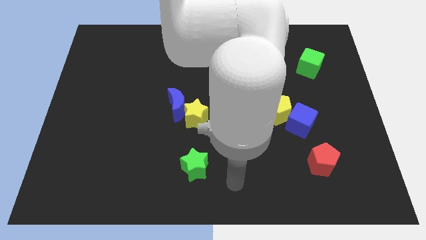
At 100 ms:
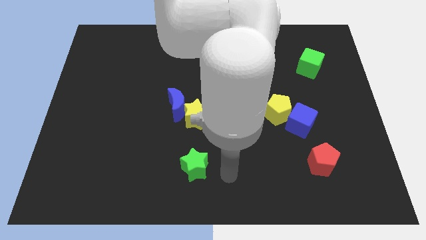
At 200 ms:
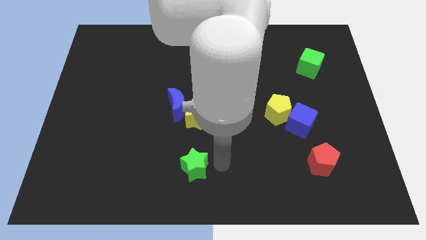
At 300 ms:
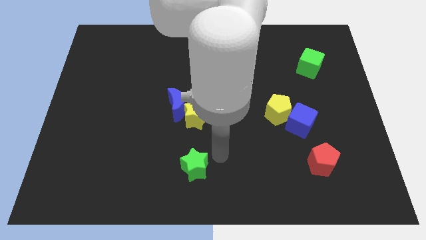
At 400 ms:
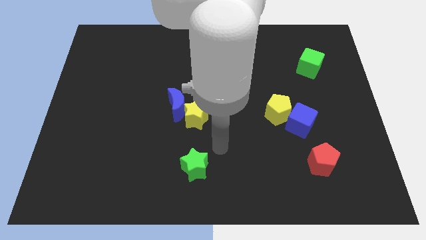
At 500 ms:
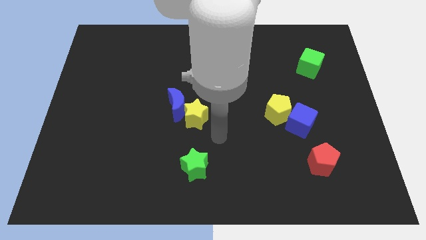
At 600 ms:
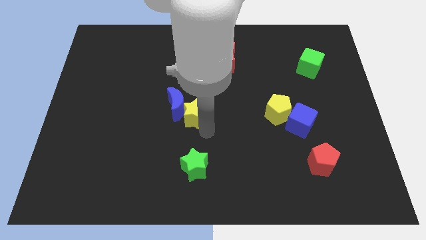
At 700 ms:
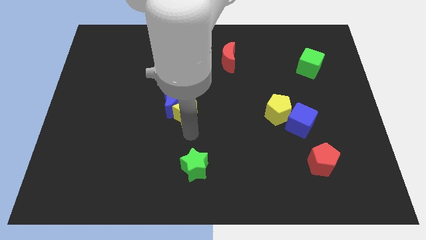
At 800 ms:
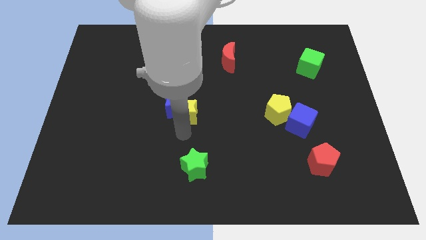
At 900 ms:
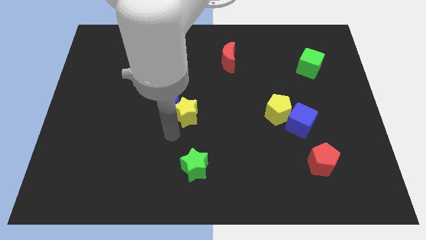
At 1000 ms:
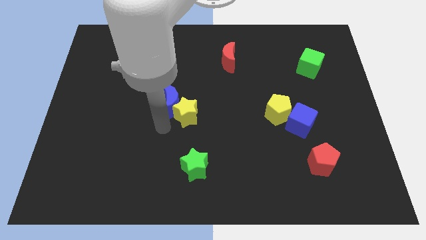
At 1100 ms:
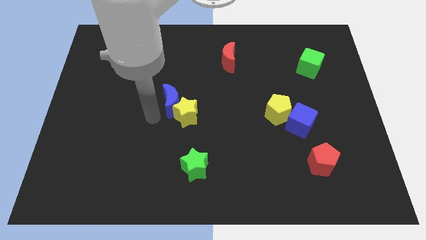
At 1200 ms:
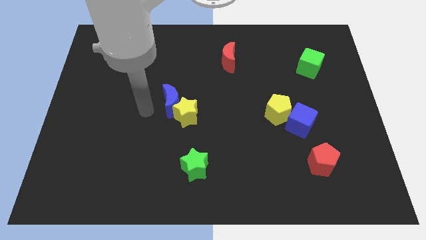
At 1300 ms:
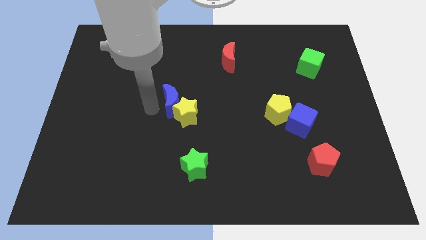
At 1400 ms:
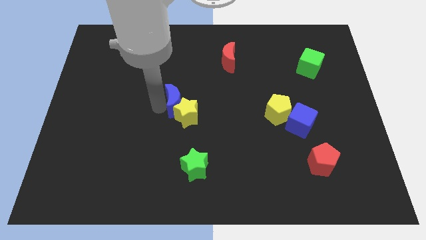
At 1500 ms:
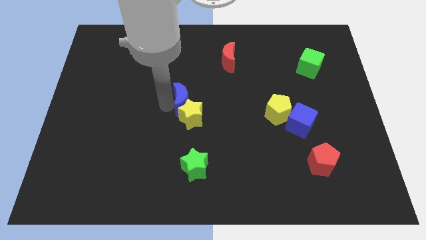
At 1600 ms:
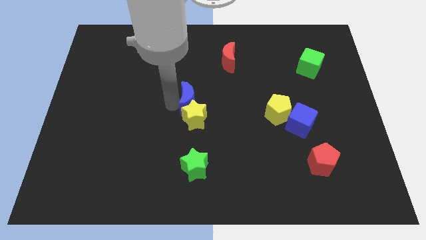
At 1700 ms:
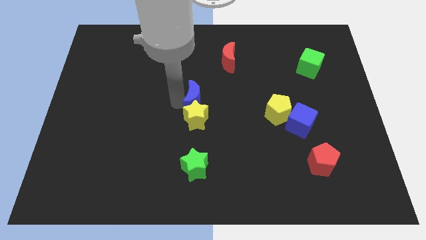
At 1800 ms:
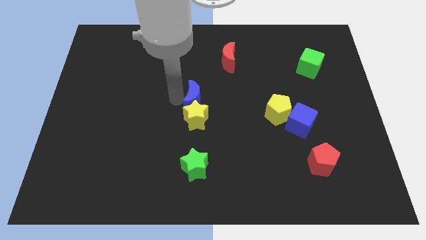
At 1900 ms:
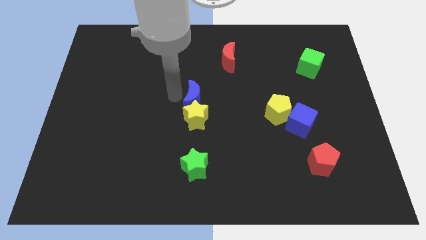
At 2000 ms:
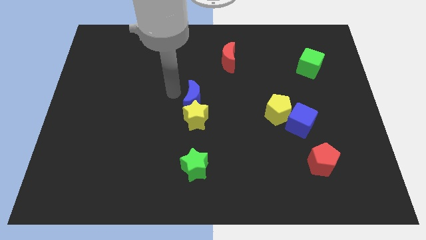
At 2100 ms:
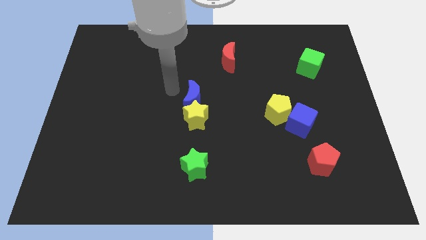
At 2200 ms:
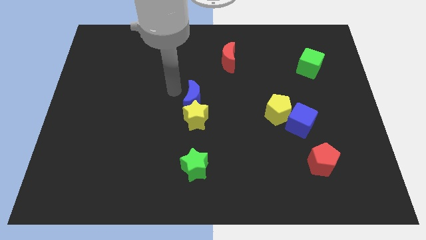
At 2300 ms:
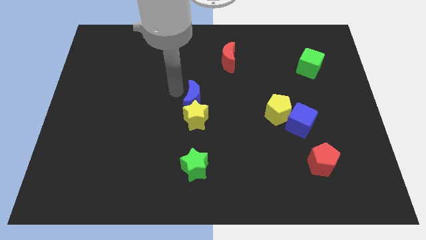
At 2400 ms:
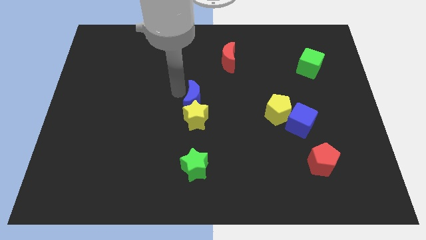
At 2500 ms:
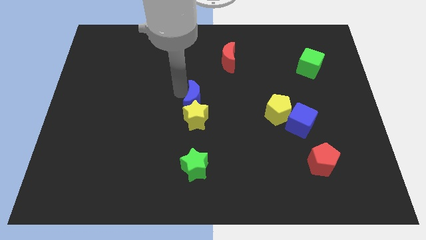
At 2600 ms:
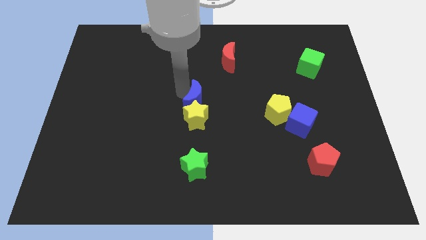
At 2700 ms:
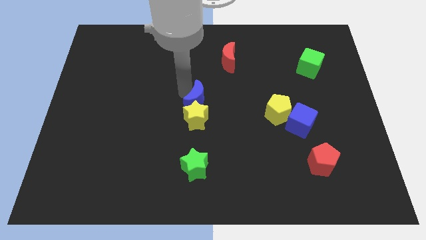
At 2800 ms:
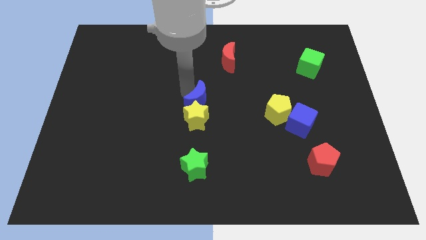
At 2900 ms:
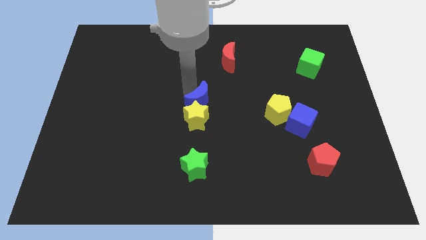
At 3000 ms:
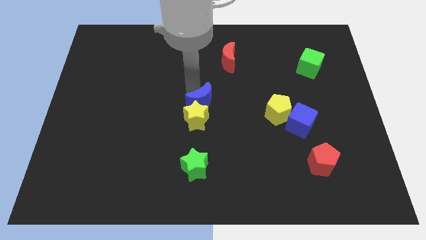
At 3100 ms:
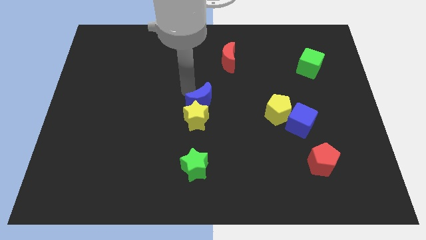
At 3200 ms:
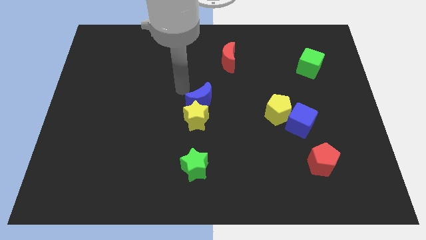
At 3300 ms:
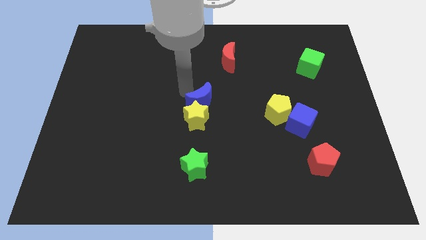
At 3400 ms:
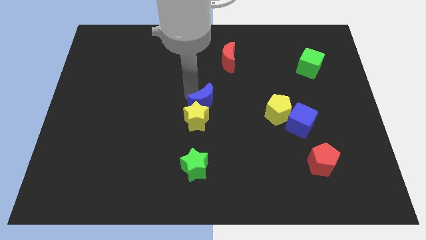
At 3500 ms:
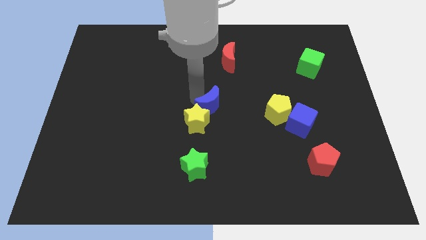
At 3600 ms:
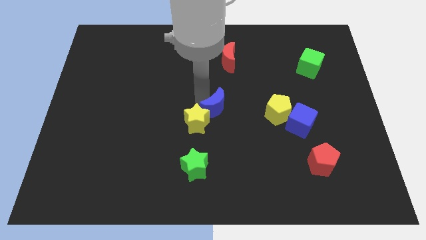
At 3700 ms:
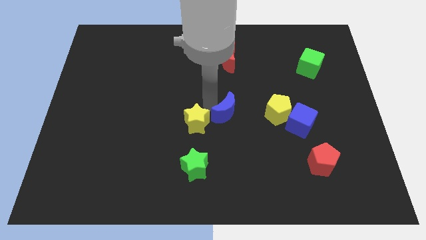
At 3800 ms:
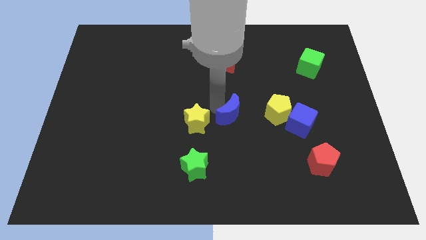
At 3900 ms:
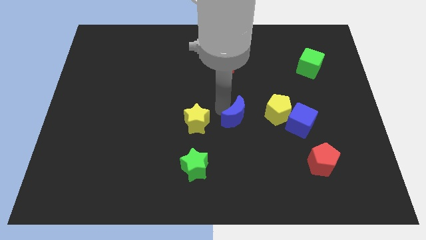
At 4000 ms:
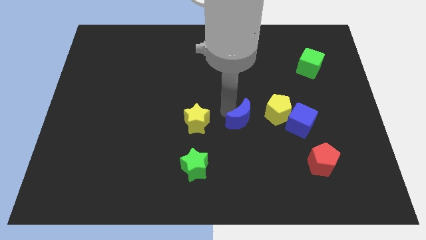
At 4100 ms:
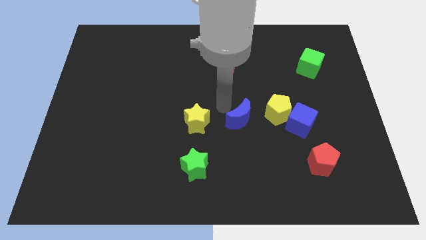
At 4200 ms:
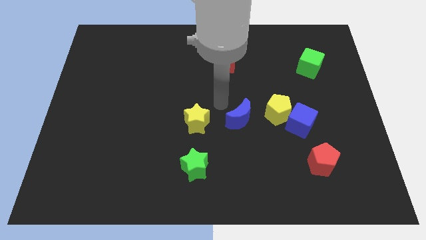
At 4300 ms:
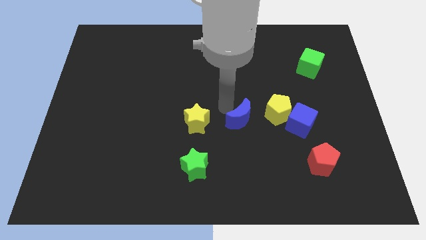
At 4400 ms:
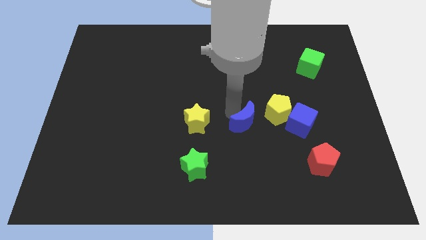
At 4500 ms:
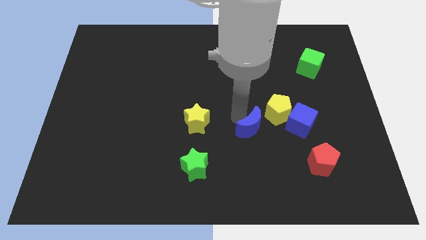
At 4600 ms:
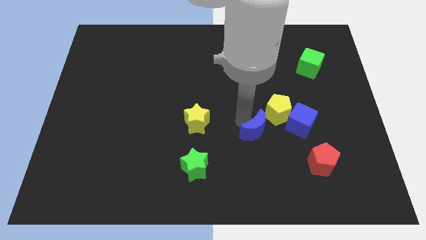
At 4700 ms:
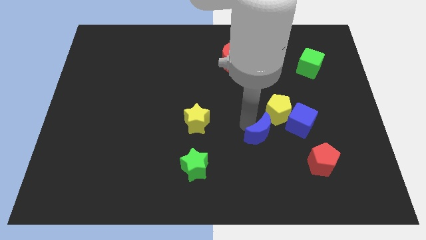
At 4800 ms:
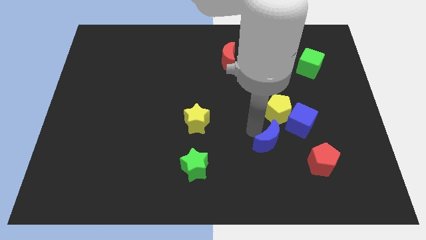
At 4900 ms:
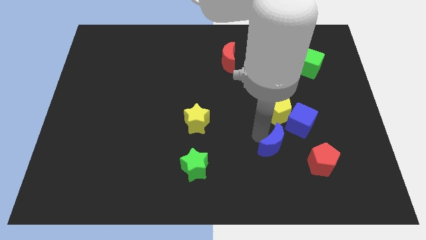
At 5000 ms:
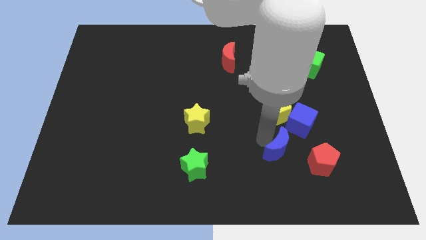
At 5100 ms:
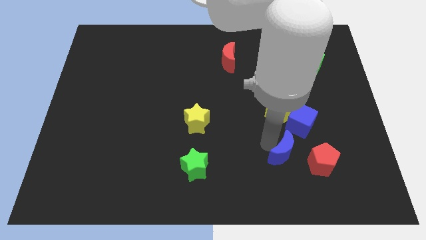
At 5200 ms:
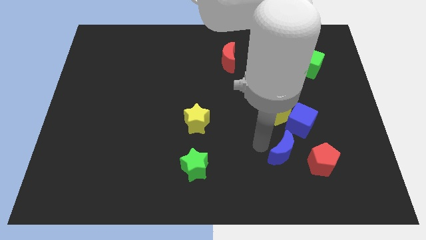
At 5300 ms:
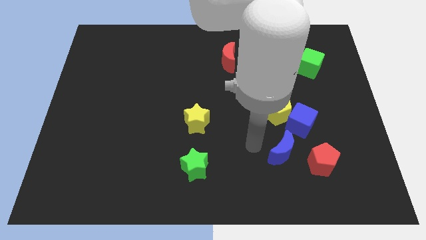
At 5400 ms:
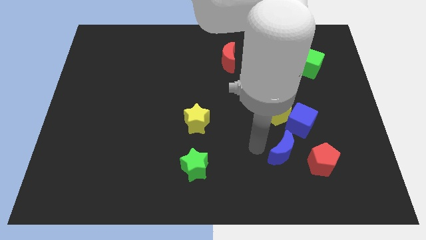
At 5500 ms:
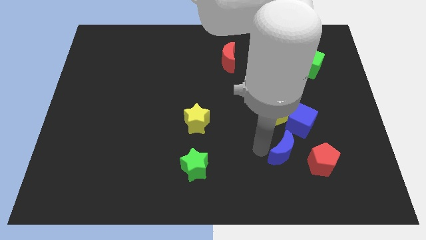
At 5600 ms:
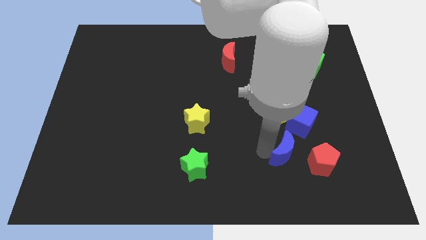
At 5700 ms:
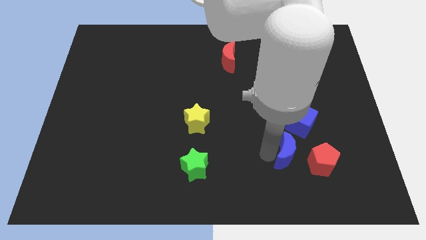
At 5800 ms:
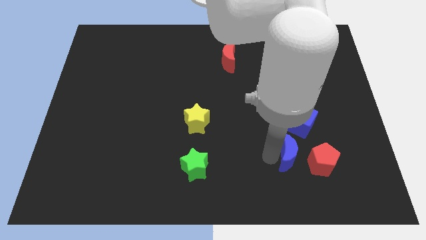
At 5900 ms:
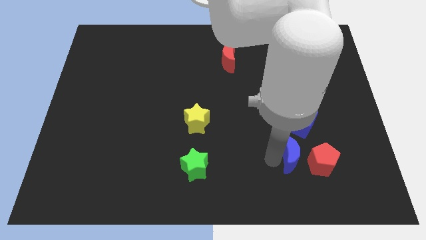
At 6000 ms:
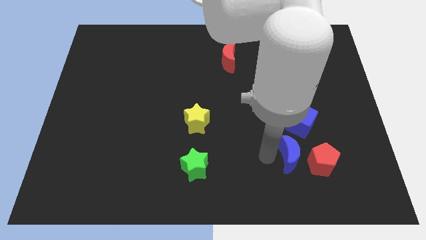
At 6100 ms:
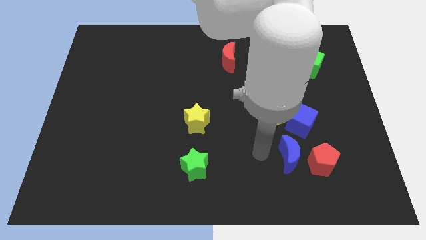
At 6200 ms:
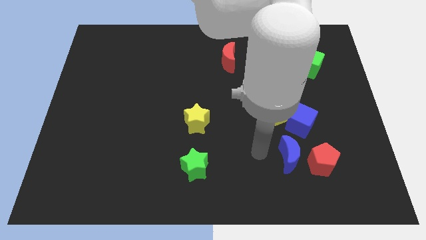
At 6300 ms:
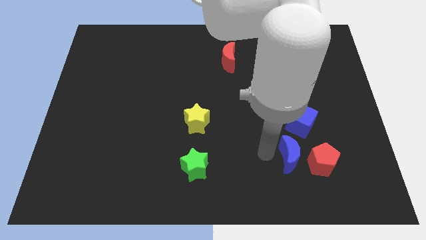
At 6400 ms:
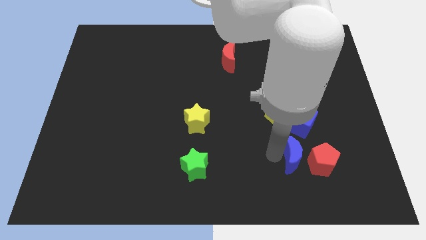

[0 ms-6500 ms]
push the blue moon next to the red pentagon
